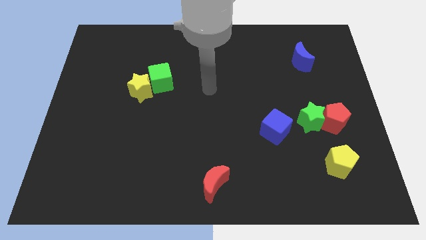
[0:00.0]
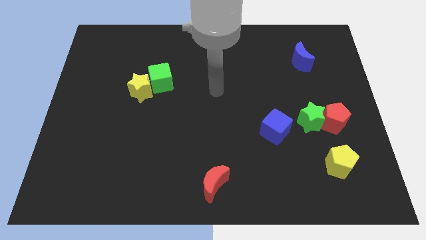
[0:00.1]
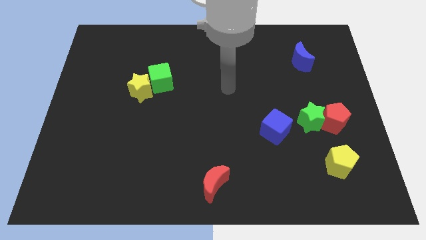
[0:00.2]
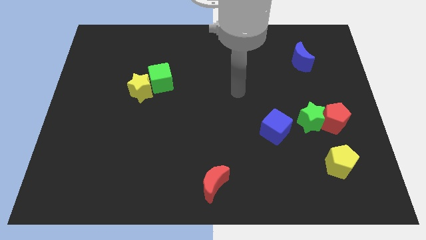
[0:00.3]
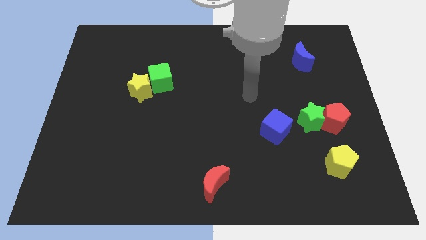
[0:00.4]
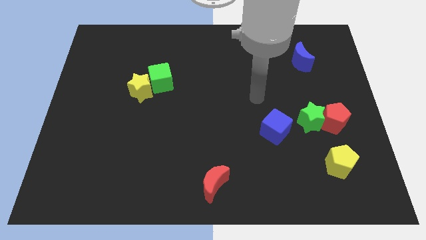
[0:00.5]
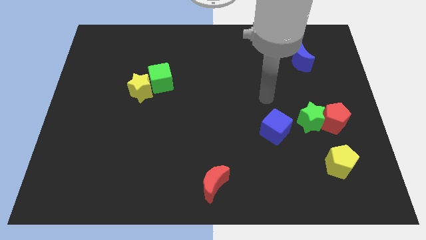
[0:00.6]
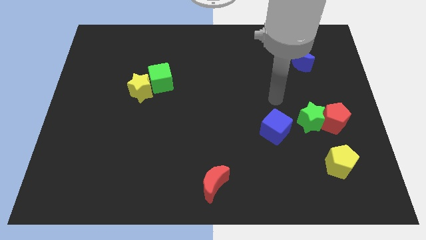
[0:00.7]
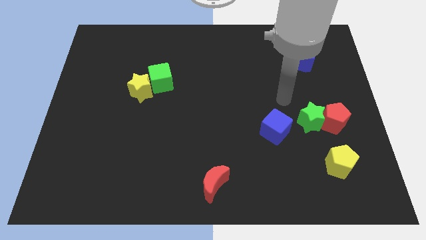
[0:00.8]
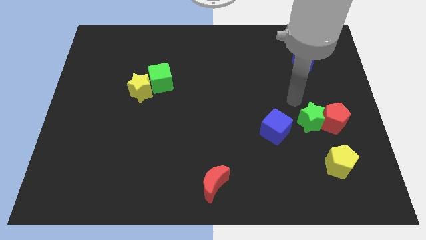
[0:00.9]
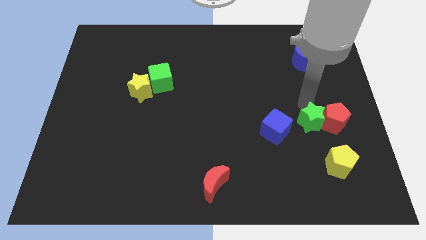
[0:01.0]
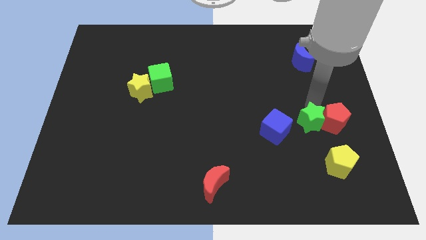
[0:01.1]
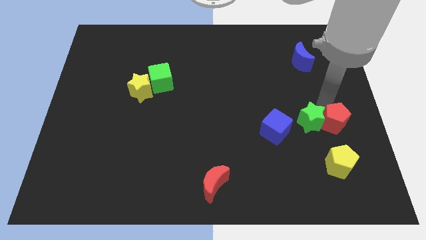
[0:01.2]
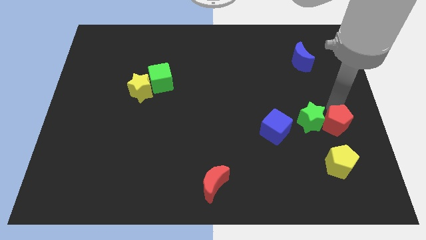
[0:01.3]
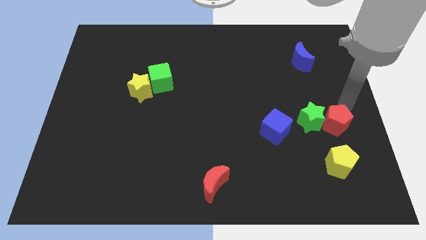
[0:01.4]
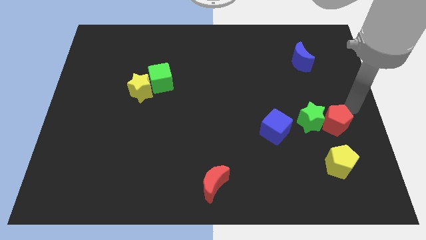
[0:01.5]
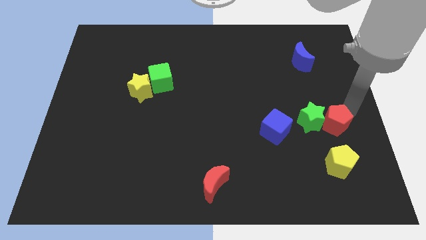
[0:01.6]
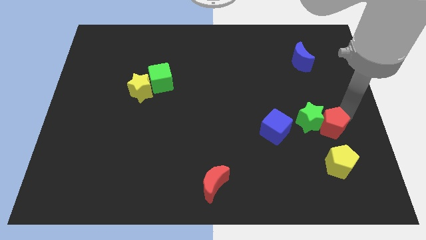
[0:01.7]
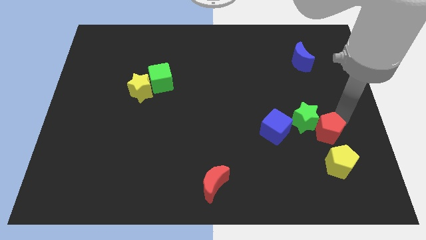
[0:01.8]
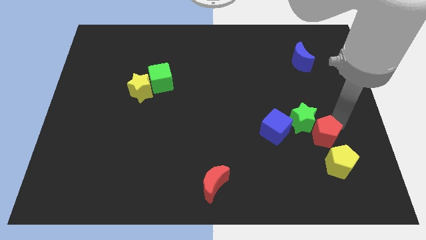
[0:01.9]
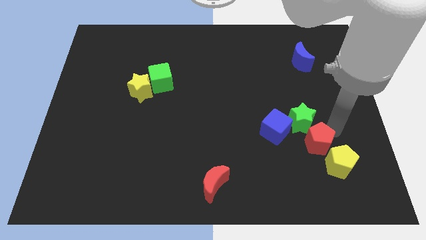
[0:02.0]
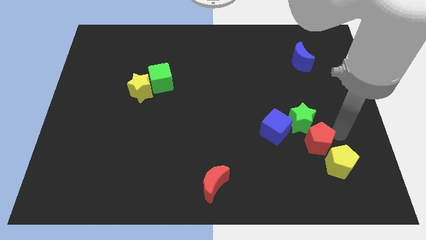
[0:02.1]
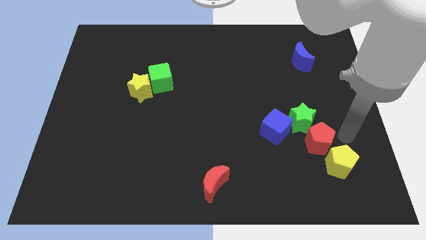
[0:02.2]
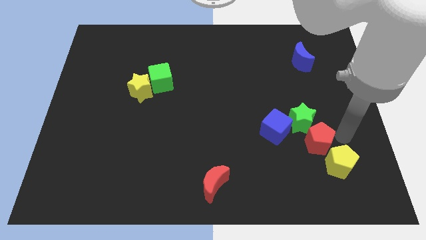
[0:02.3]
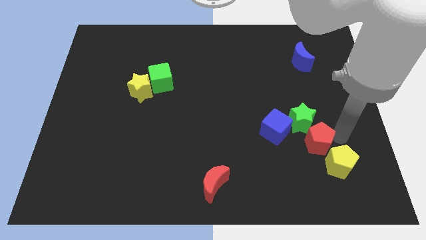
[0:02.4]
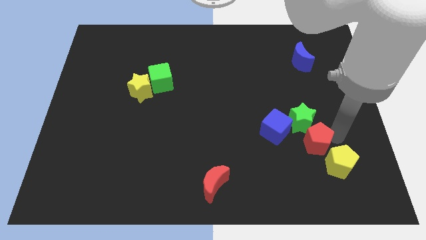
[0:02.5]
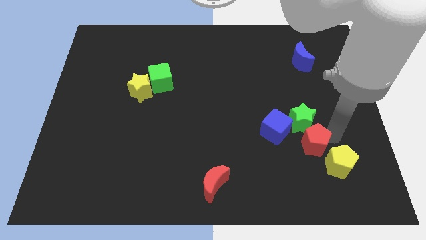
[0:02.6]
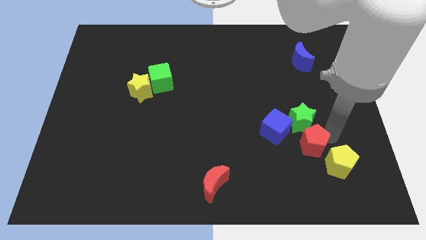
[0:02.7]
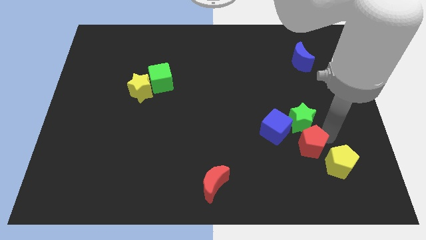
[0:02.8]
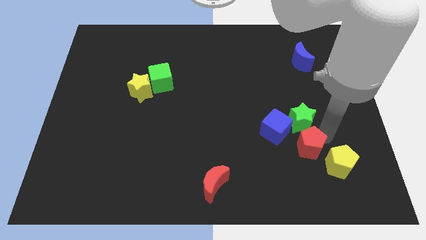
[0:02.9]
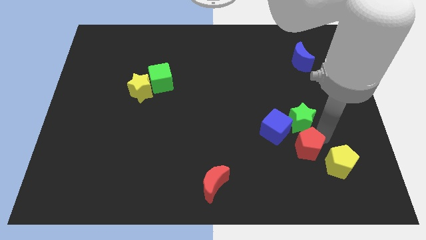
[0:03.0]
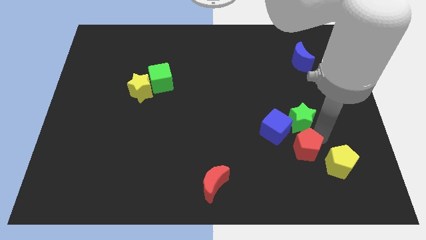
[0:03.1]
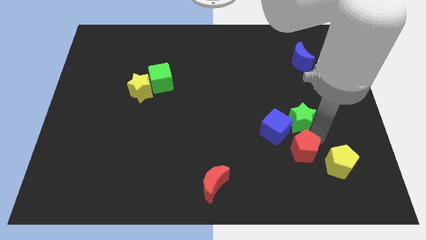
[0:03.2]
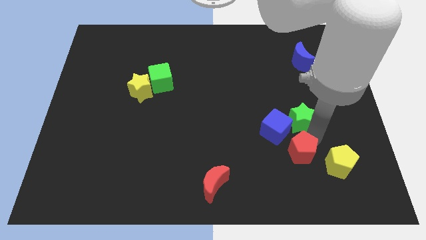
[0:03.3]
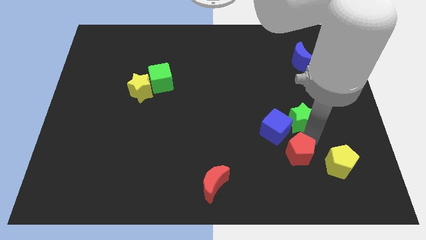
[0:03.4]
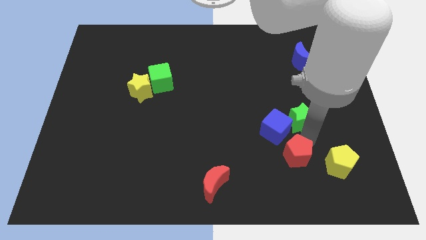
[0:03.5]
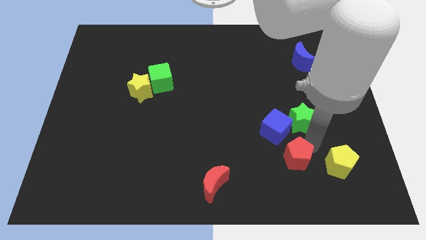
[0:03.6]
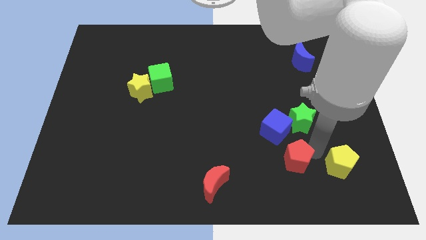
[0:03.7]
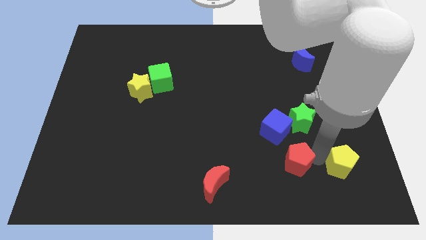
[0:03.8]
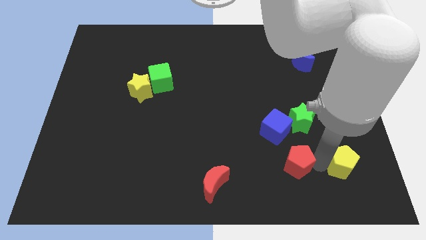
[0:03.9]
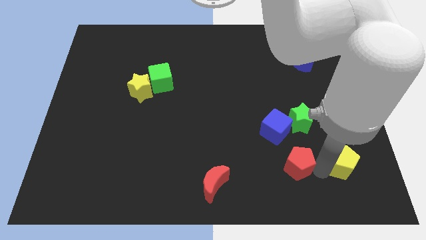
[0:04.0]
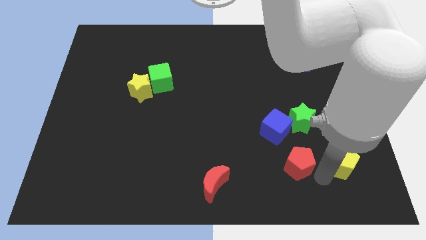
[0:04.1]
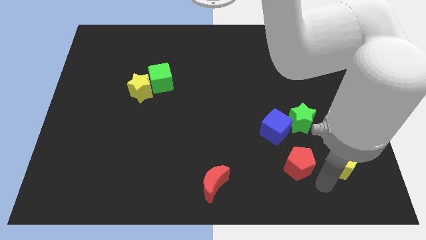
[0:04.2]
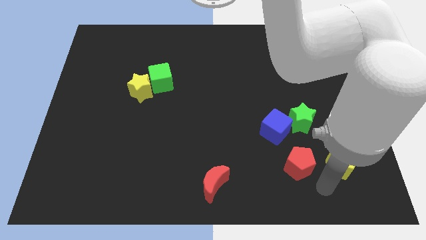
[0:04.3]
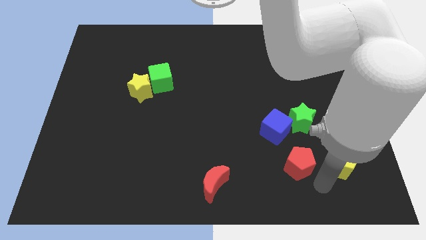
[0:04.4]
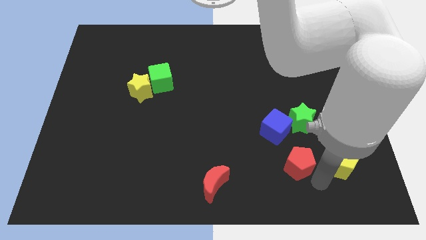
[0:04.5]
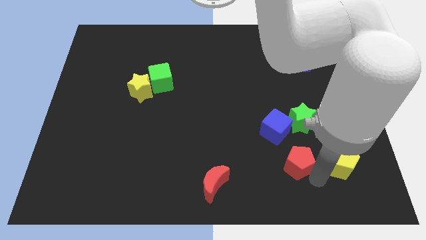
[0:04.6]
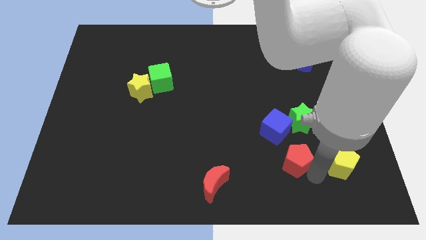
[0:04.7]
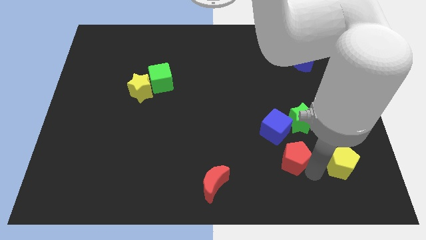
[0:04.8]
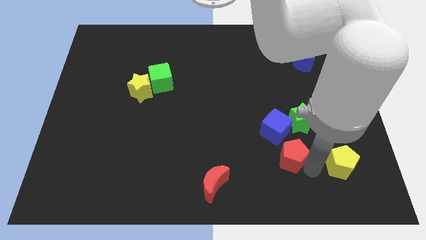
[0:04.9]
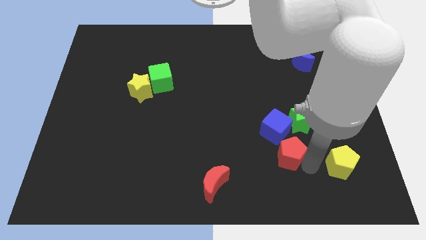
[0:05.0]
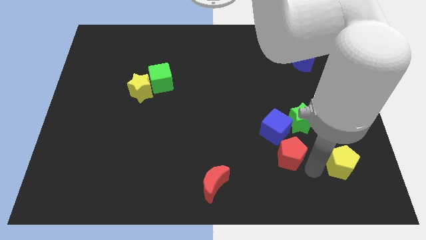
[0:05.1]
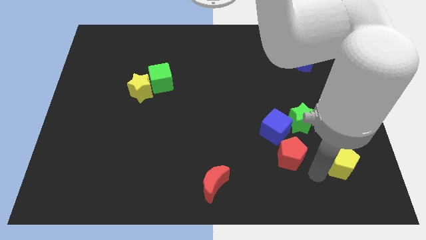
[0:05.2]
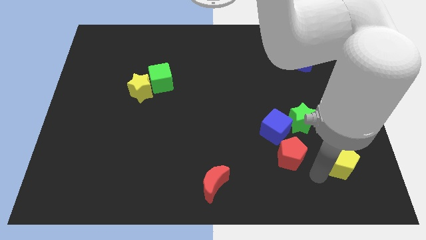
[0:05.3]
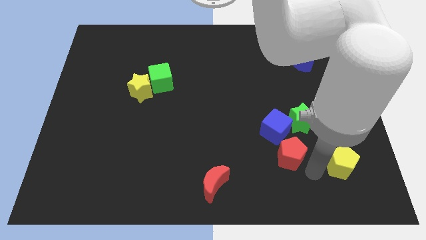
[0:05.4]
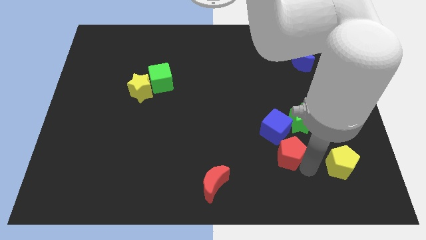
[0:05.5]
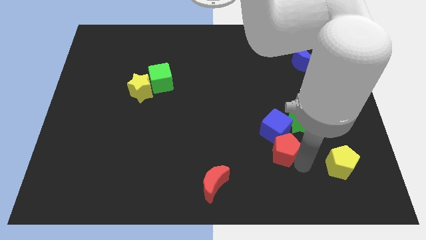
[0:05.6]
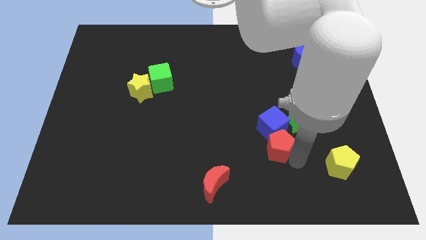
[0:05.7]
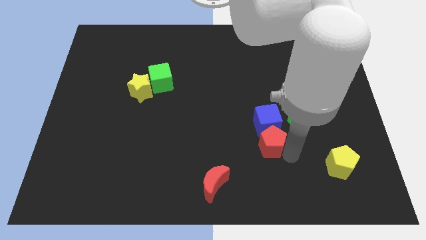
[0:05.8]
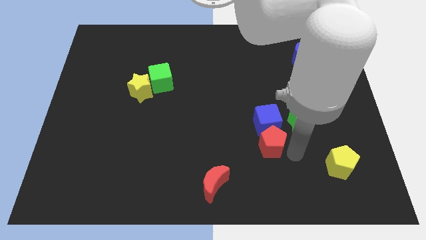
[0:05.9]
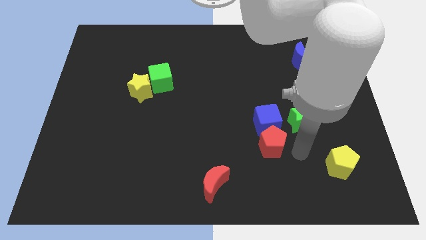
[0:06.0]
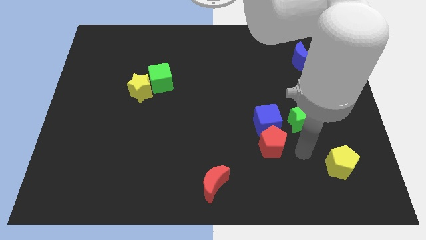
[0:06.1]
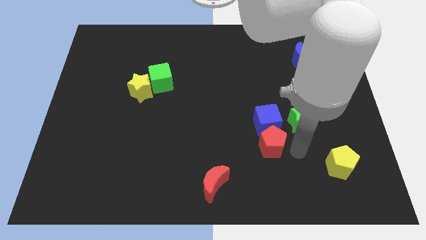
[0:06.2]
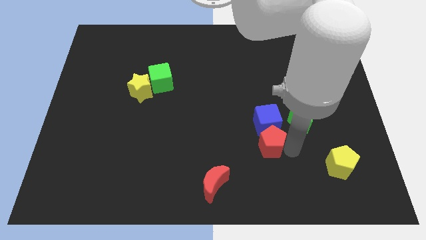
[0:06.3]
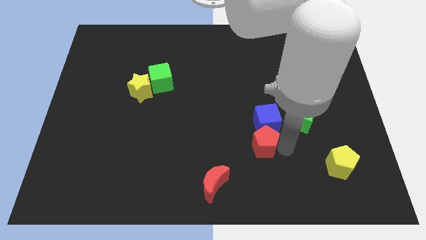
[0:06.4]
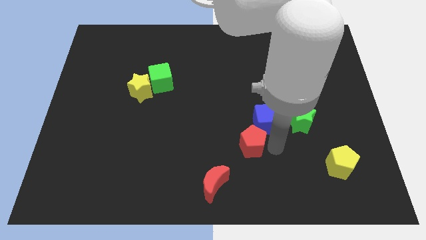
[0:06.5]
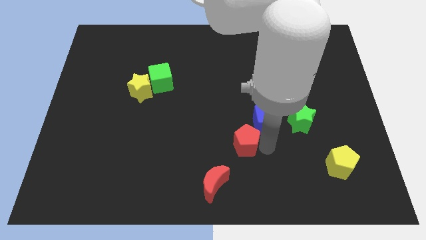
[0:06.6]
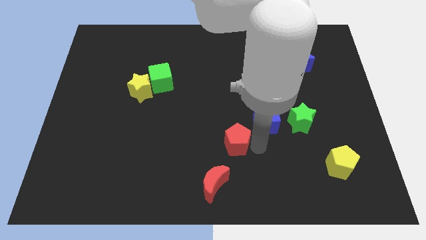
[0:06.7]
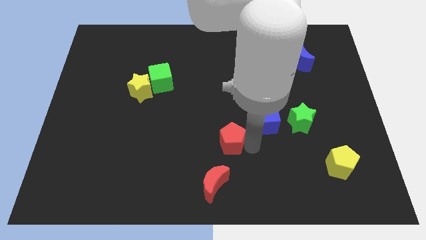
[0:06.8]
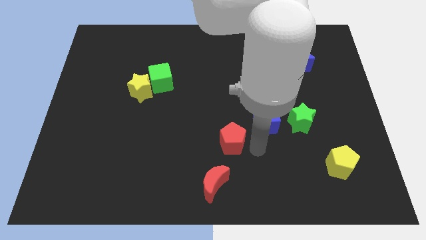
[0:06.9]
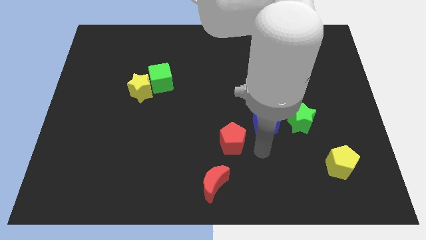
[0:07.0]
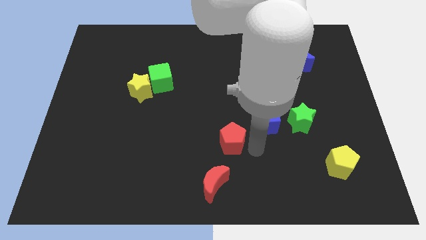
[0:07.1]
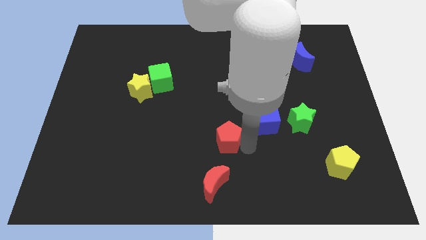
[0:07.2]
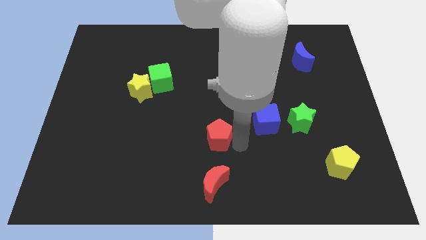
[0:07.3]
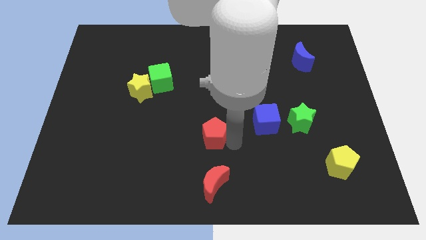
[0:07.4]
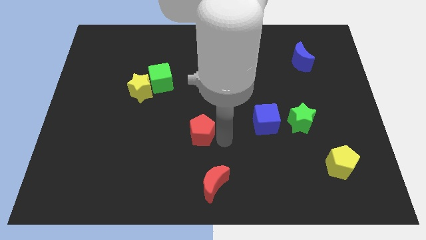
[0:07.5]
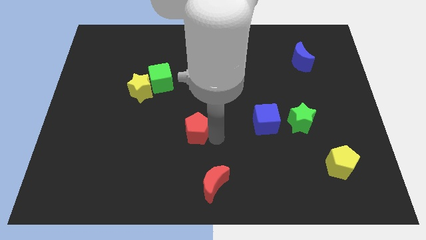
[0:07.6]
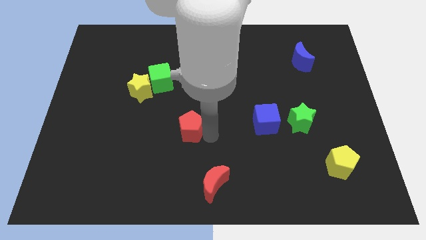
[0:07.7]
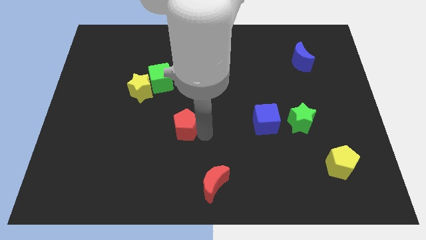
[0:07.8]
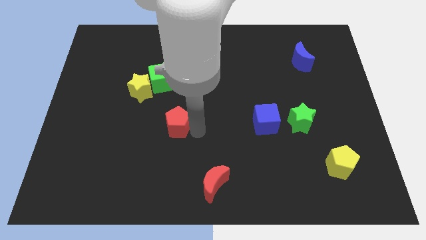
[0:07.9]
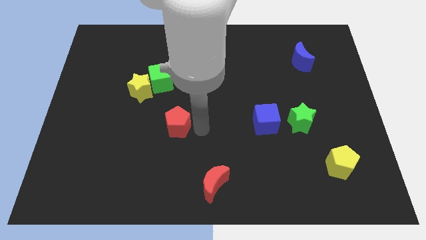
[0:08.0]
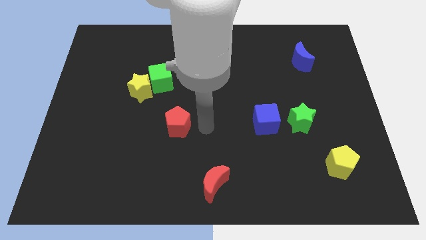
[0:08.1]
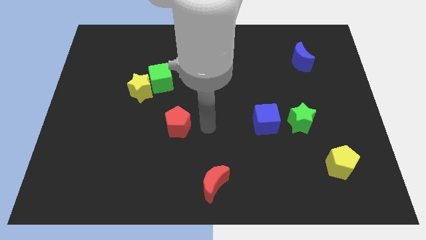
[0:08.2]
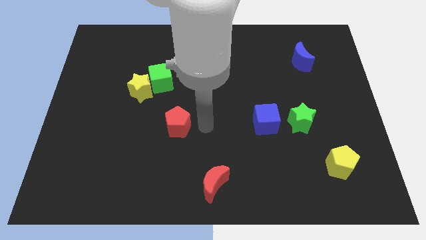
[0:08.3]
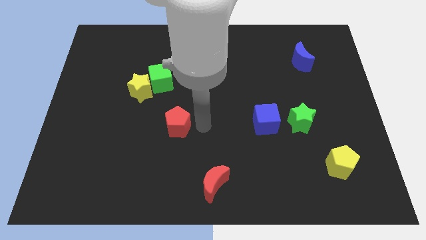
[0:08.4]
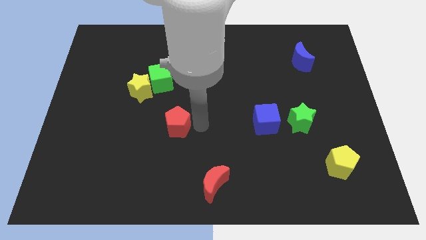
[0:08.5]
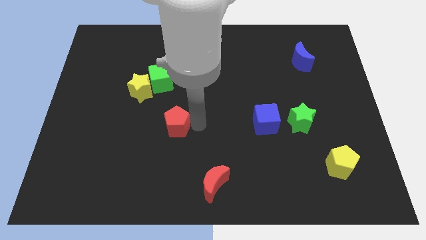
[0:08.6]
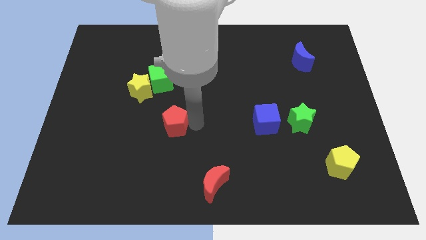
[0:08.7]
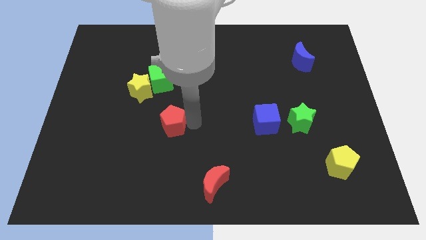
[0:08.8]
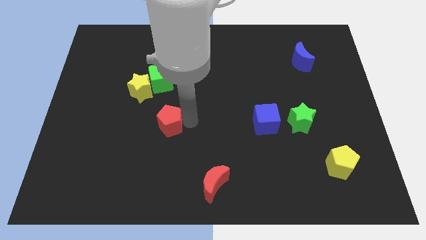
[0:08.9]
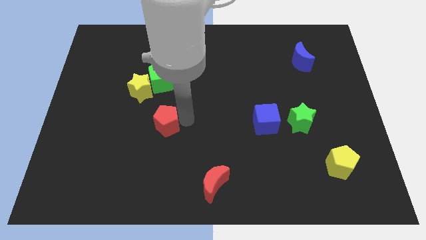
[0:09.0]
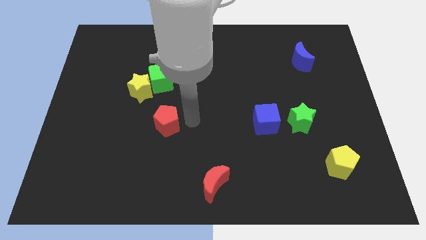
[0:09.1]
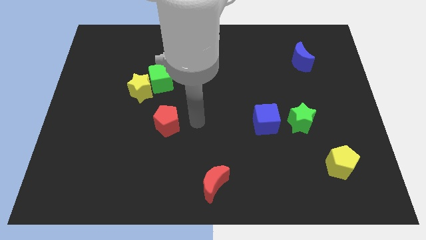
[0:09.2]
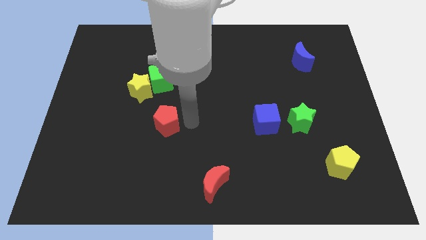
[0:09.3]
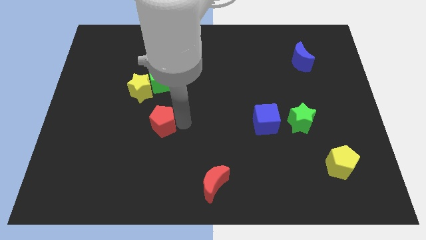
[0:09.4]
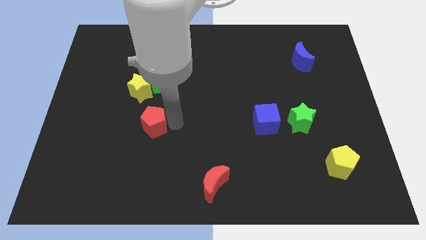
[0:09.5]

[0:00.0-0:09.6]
push the red pentagon below the yellow star
